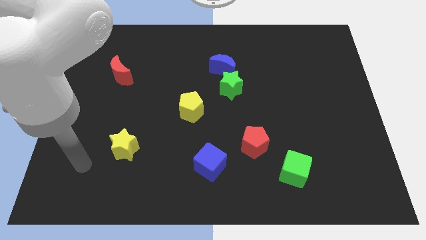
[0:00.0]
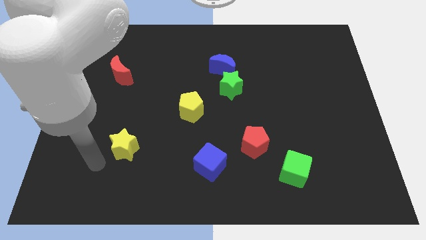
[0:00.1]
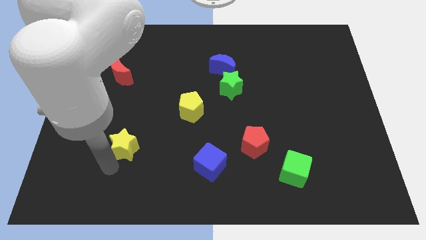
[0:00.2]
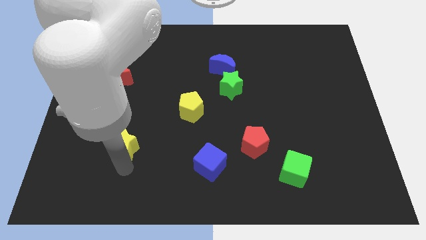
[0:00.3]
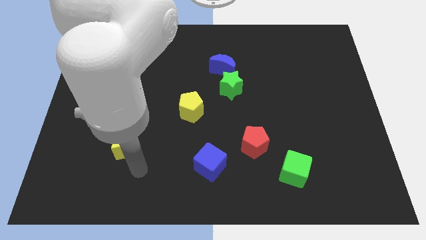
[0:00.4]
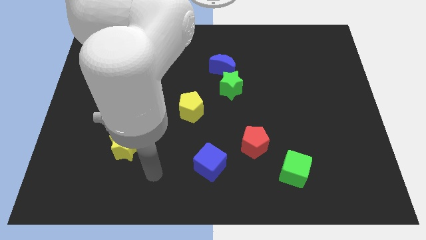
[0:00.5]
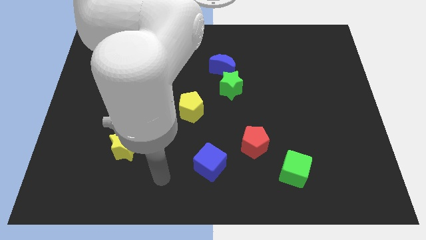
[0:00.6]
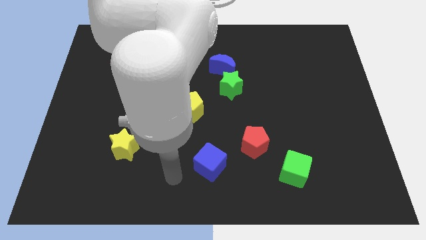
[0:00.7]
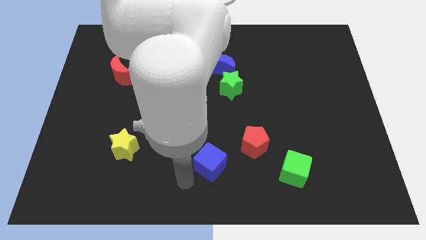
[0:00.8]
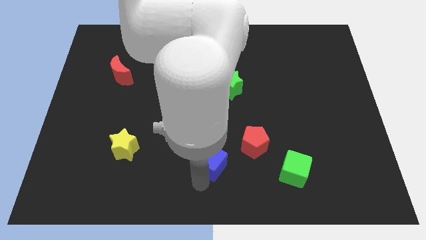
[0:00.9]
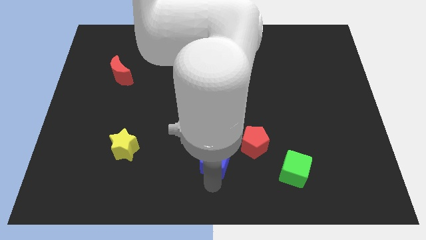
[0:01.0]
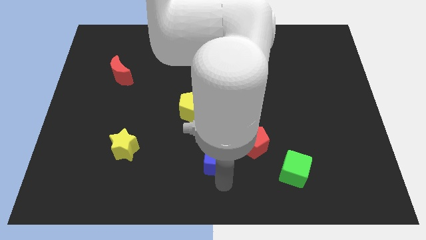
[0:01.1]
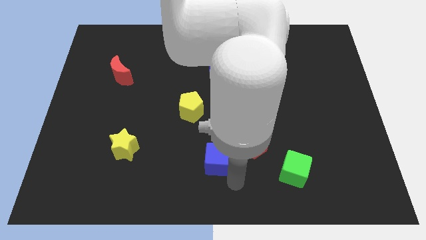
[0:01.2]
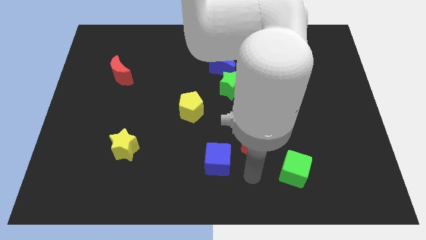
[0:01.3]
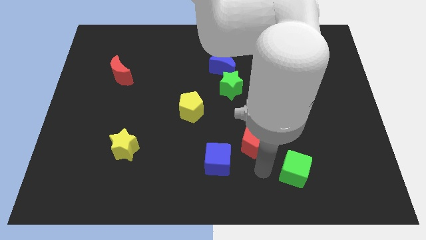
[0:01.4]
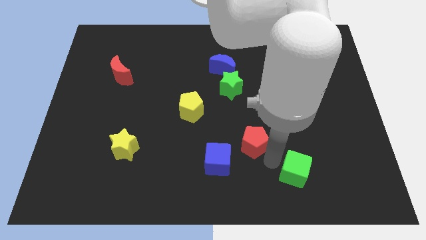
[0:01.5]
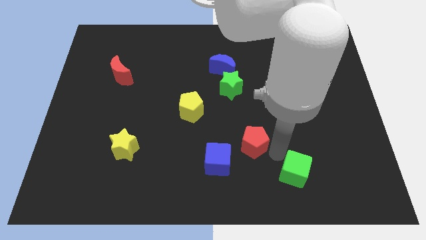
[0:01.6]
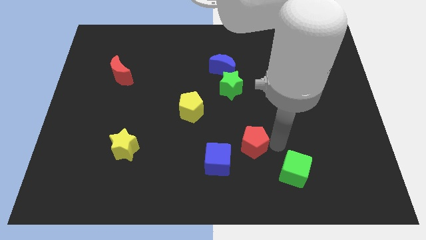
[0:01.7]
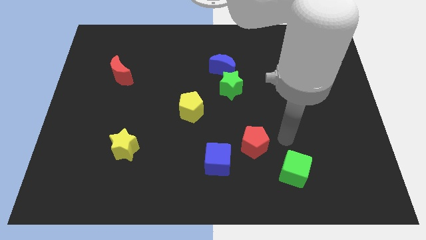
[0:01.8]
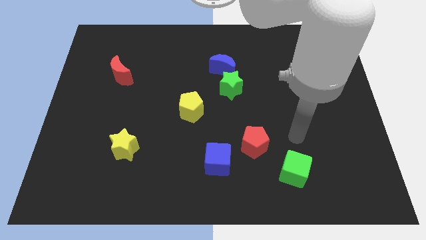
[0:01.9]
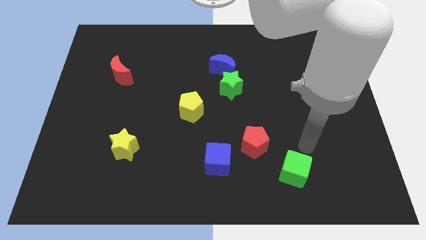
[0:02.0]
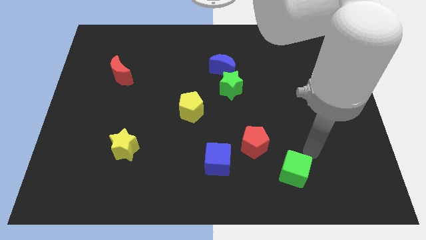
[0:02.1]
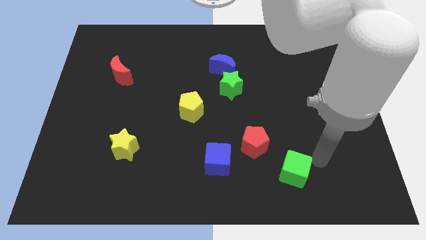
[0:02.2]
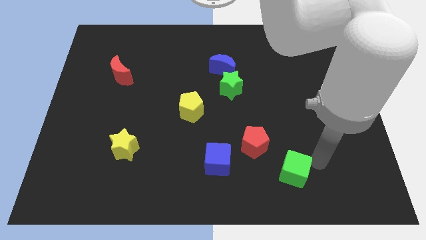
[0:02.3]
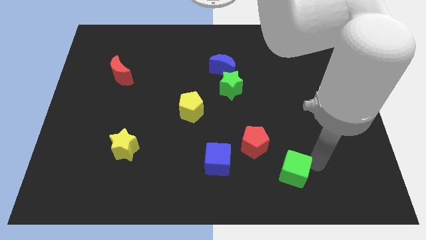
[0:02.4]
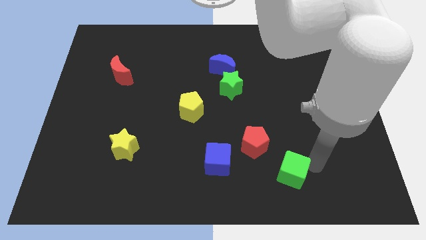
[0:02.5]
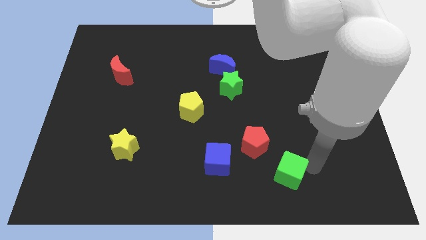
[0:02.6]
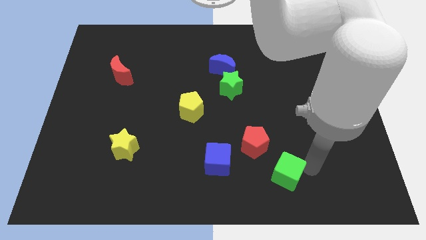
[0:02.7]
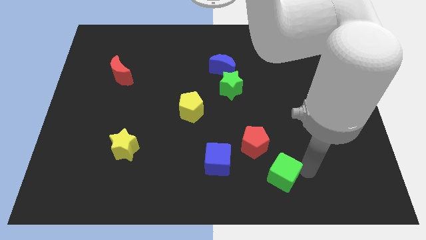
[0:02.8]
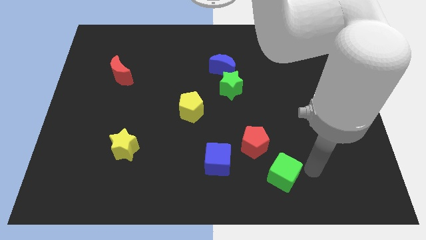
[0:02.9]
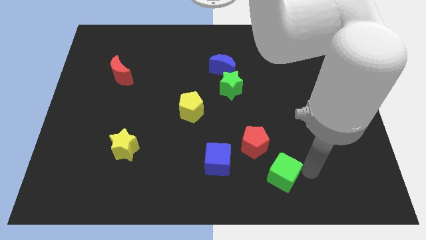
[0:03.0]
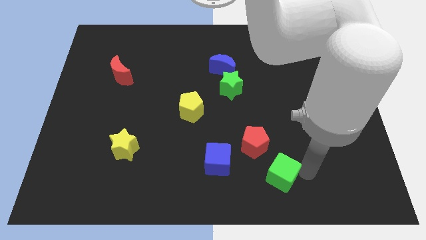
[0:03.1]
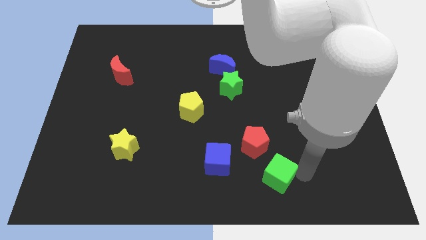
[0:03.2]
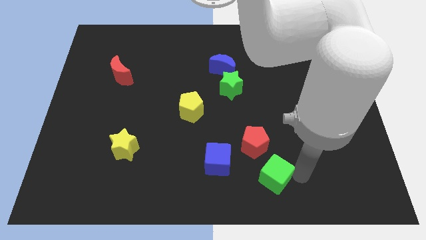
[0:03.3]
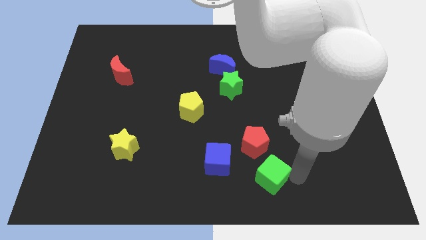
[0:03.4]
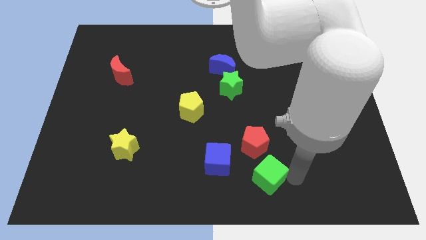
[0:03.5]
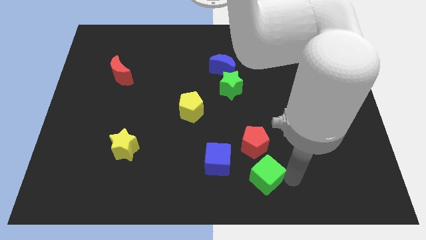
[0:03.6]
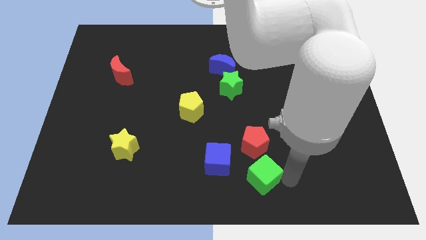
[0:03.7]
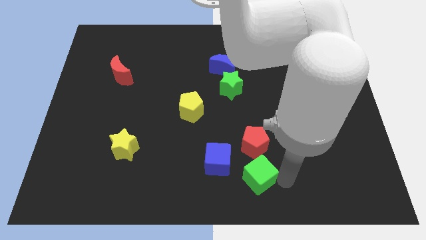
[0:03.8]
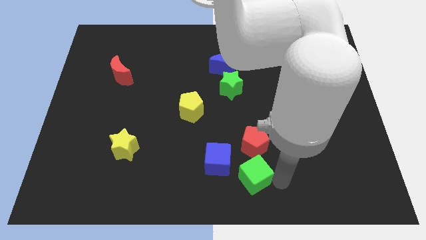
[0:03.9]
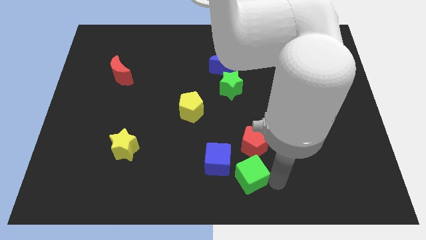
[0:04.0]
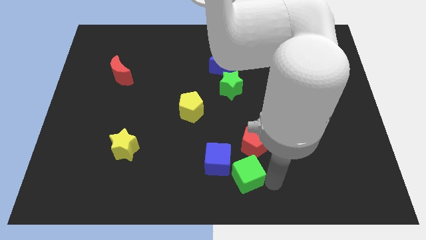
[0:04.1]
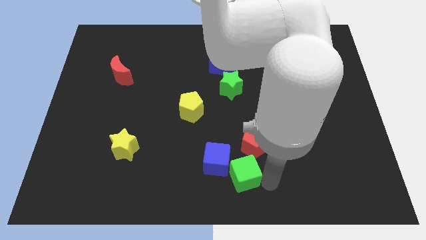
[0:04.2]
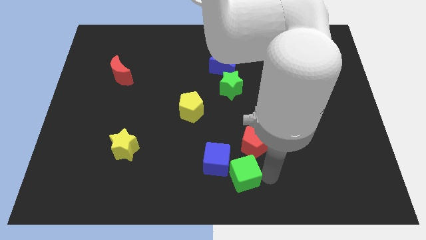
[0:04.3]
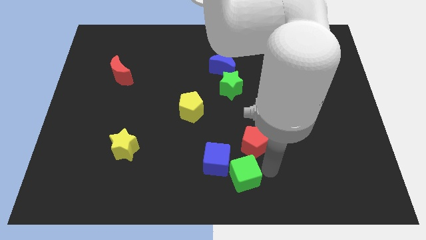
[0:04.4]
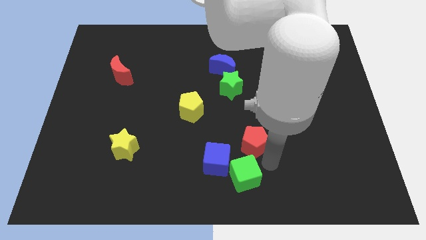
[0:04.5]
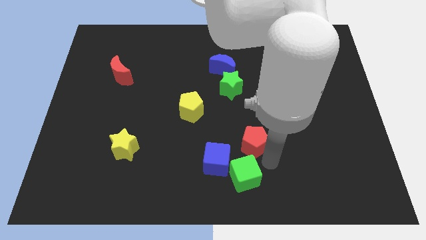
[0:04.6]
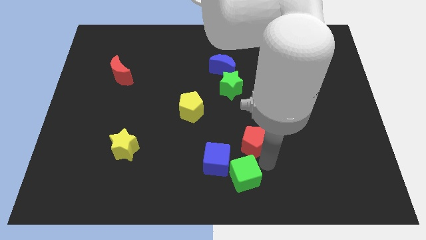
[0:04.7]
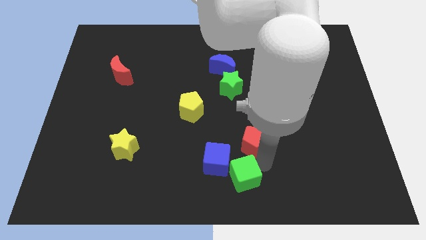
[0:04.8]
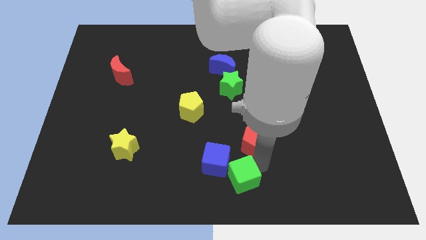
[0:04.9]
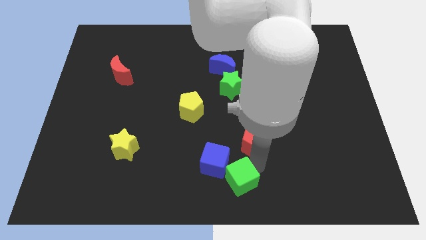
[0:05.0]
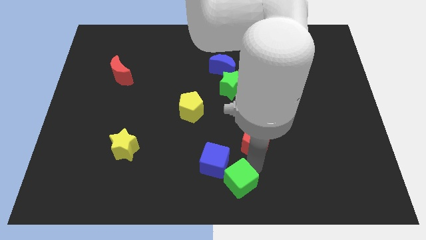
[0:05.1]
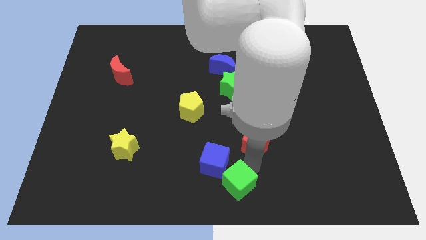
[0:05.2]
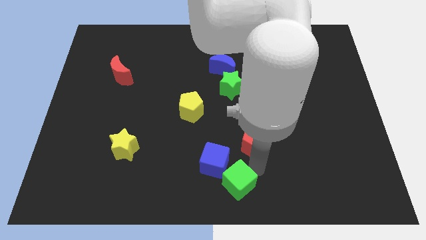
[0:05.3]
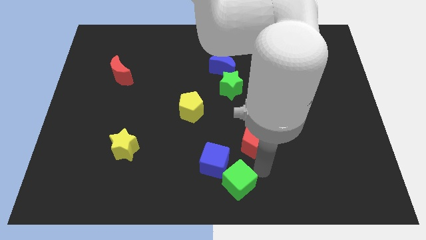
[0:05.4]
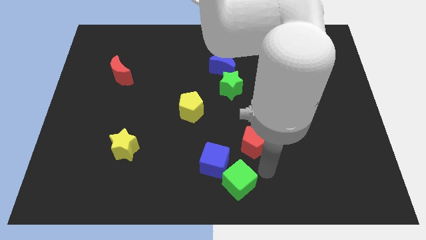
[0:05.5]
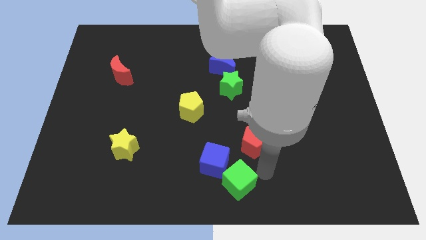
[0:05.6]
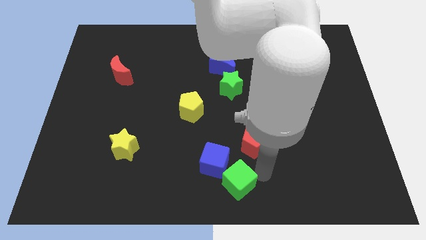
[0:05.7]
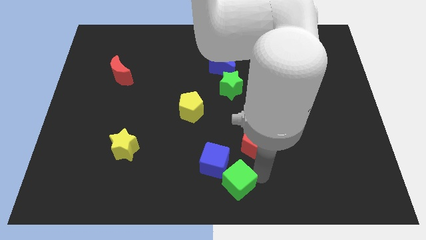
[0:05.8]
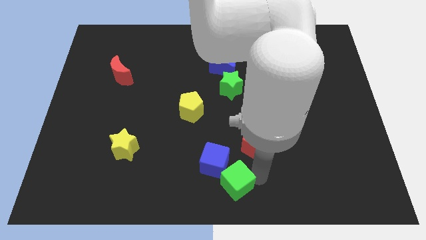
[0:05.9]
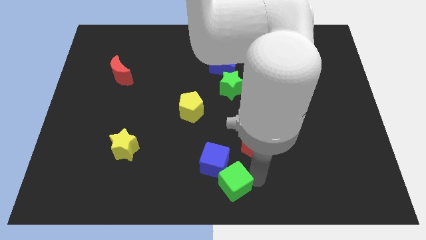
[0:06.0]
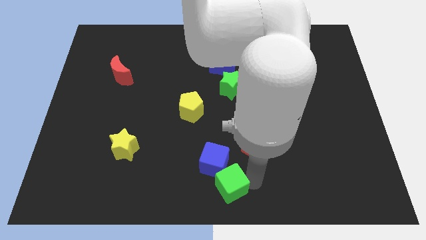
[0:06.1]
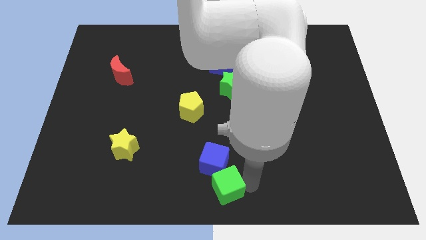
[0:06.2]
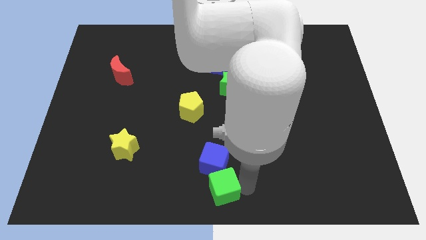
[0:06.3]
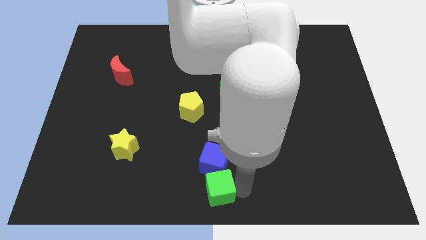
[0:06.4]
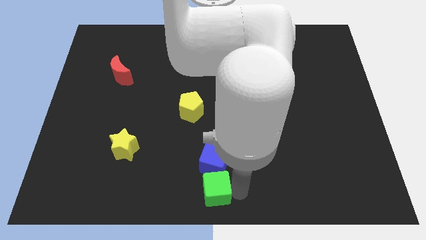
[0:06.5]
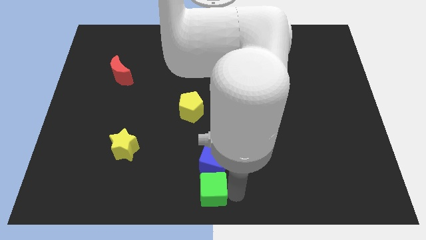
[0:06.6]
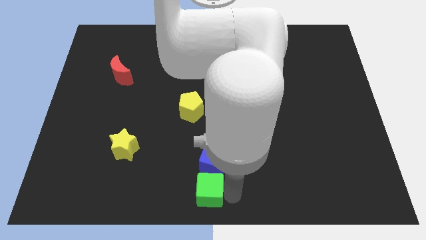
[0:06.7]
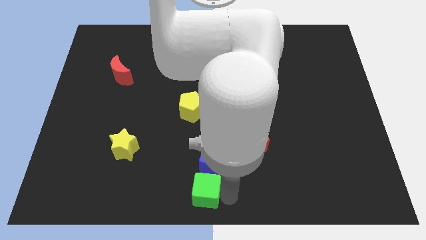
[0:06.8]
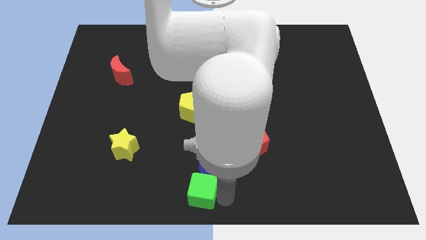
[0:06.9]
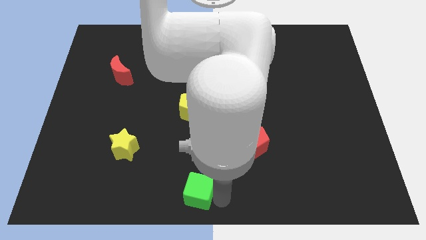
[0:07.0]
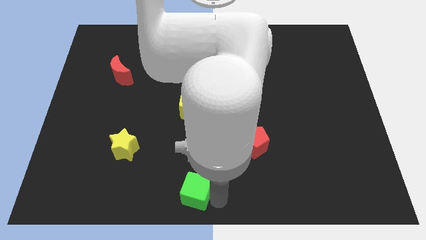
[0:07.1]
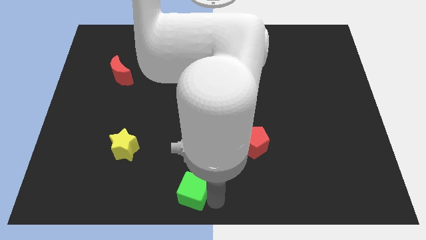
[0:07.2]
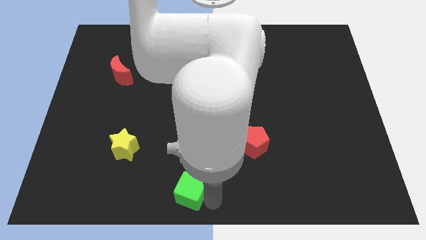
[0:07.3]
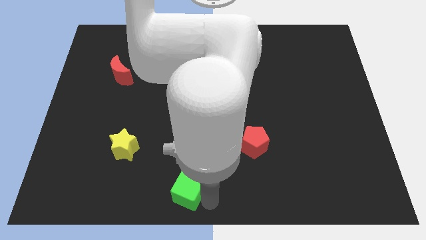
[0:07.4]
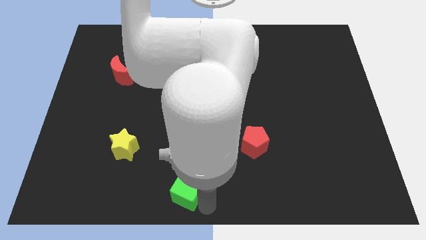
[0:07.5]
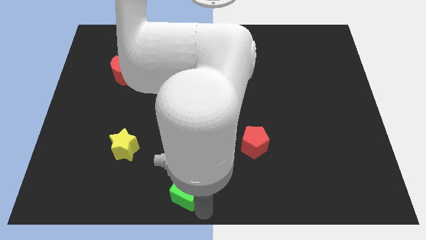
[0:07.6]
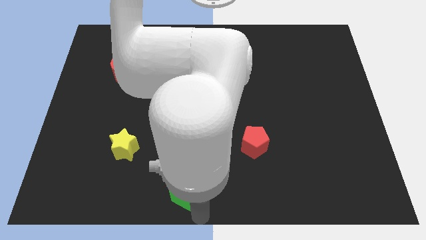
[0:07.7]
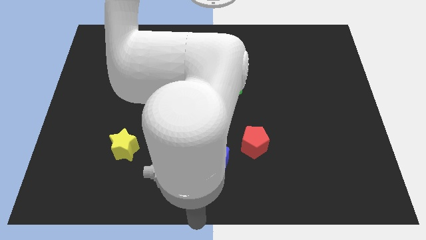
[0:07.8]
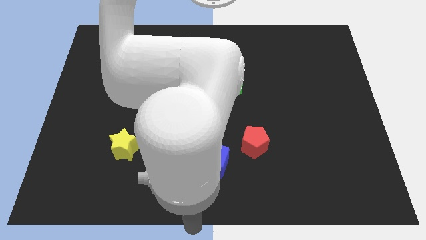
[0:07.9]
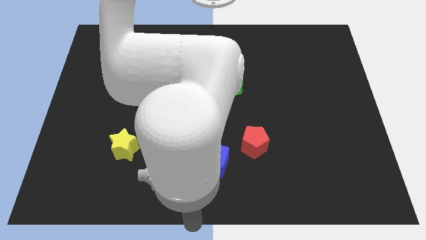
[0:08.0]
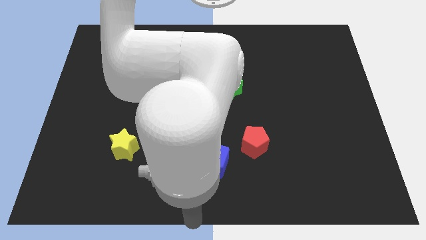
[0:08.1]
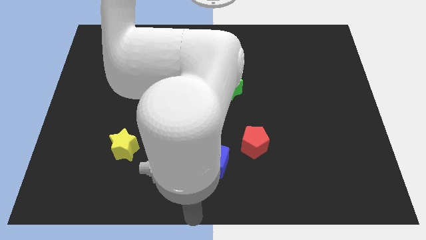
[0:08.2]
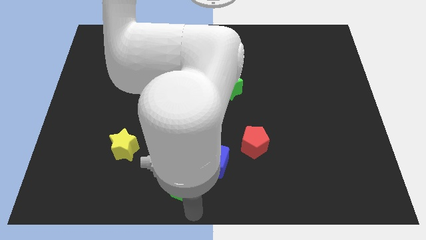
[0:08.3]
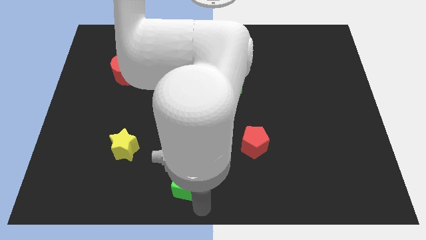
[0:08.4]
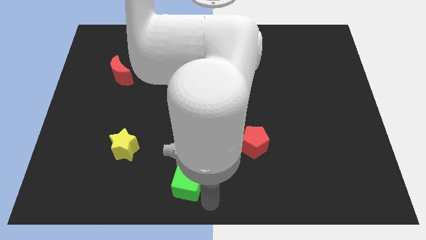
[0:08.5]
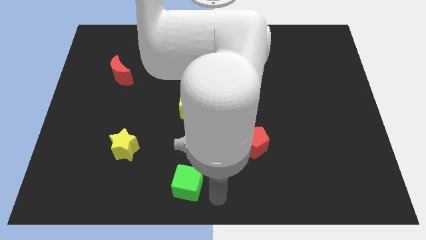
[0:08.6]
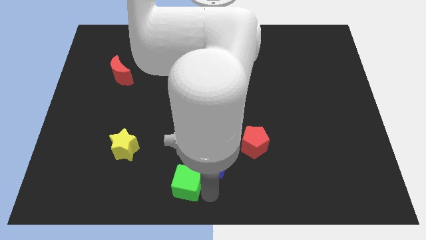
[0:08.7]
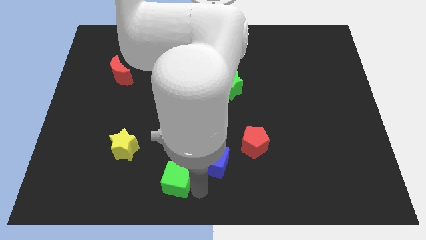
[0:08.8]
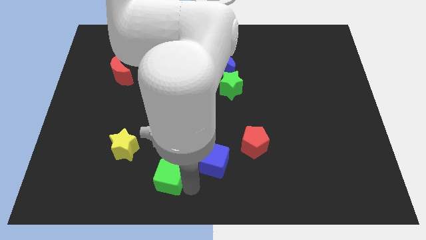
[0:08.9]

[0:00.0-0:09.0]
put the green cube diagonally down and to the right of the yellow star
